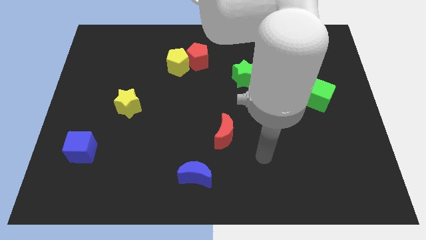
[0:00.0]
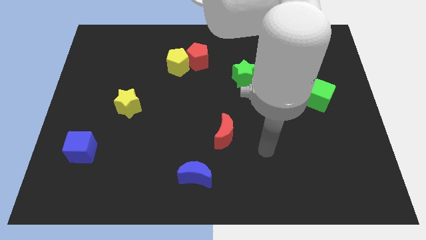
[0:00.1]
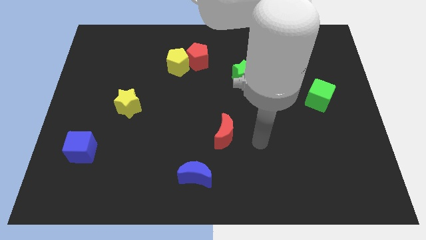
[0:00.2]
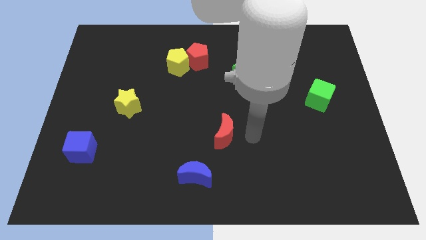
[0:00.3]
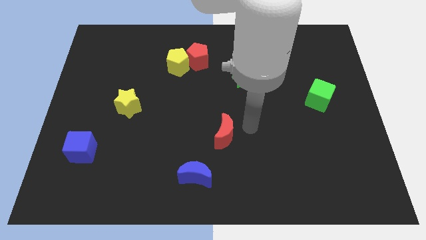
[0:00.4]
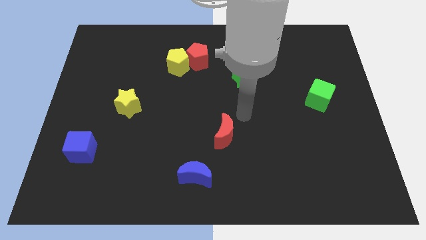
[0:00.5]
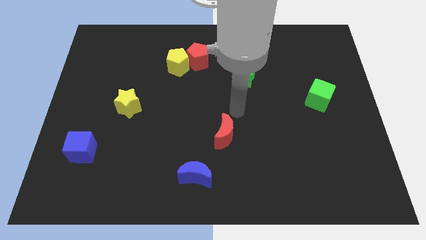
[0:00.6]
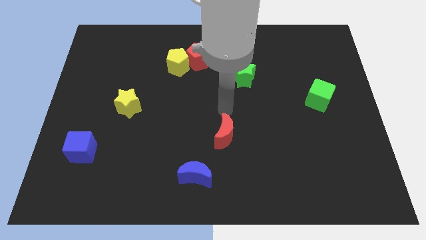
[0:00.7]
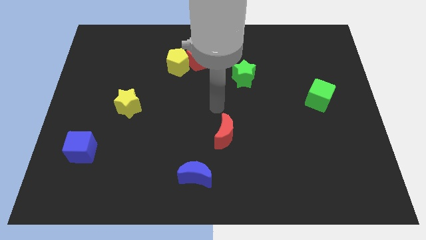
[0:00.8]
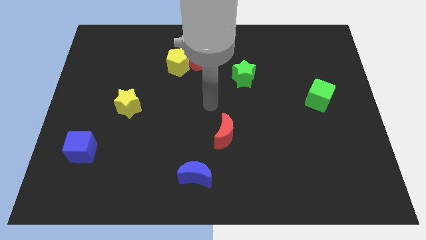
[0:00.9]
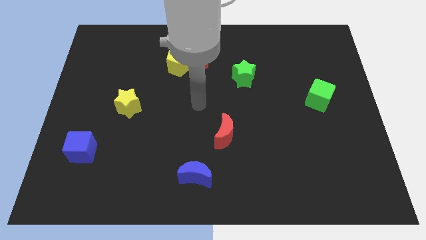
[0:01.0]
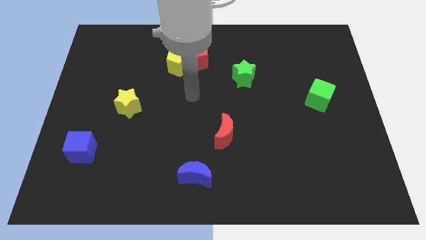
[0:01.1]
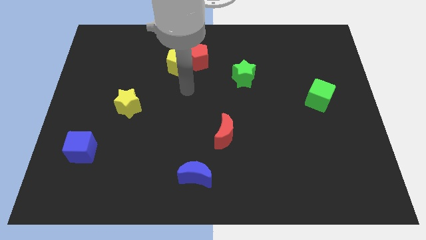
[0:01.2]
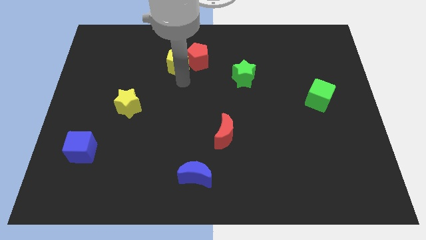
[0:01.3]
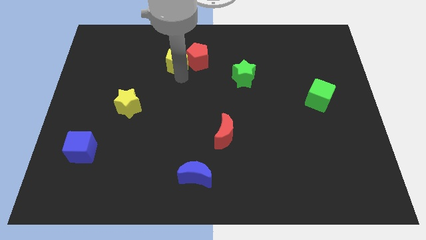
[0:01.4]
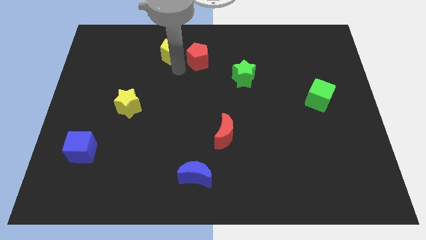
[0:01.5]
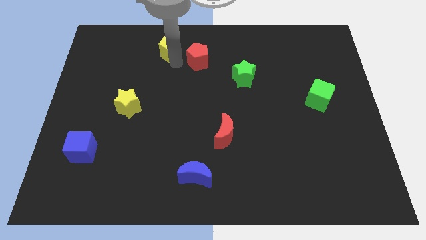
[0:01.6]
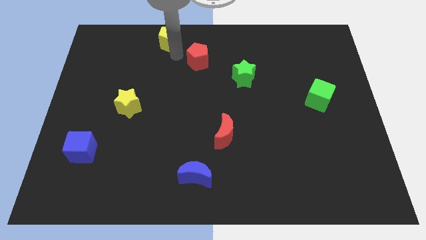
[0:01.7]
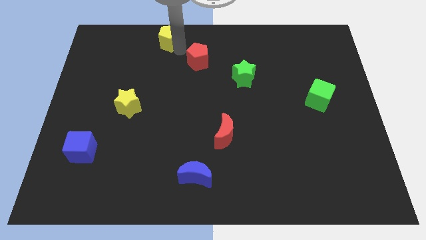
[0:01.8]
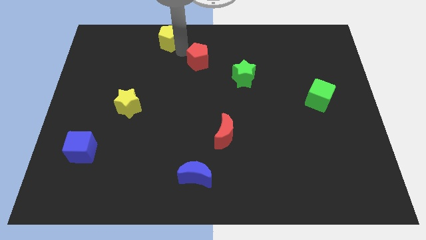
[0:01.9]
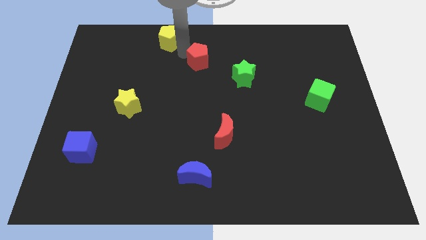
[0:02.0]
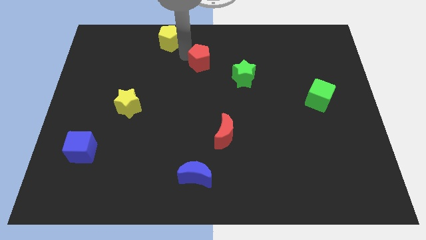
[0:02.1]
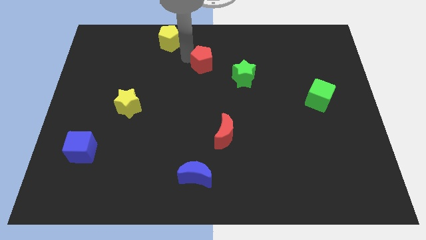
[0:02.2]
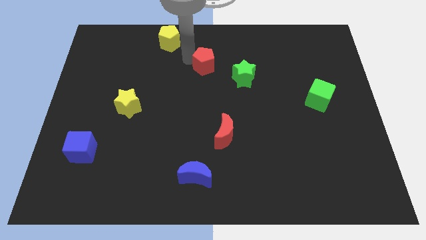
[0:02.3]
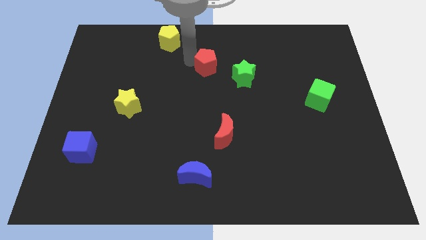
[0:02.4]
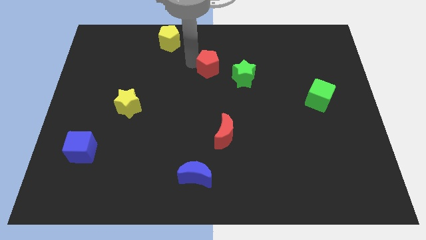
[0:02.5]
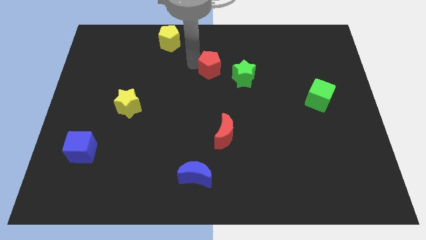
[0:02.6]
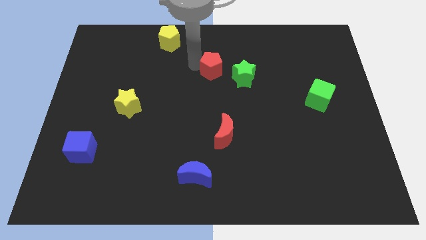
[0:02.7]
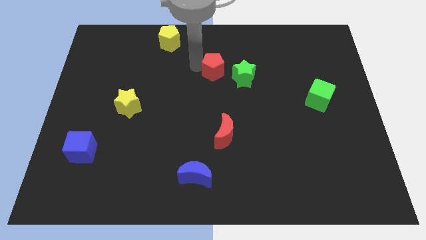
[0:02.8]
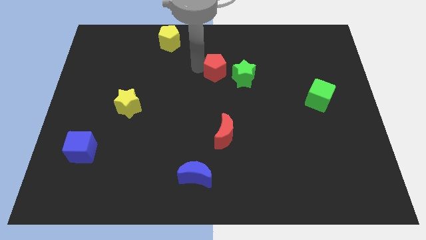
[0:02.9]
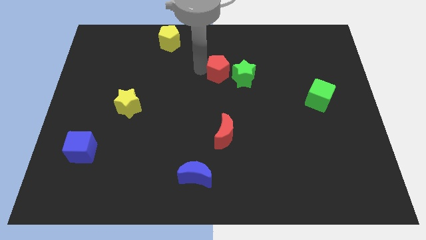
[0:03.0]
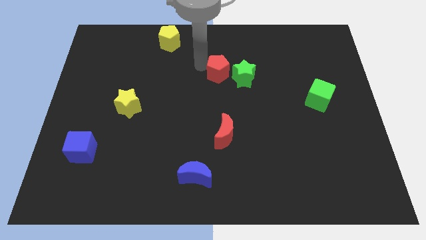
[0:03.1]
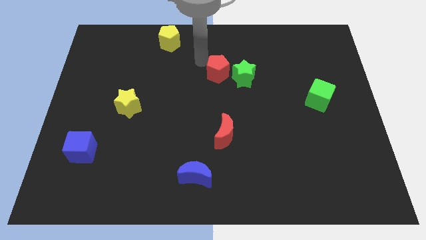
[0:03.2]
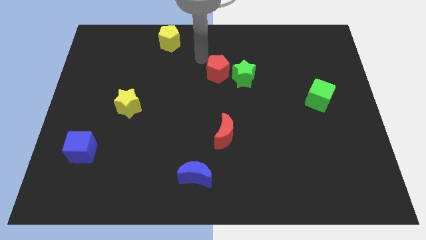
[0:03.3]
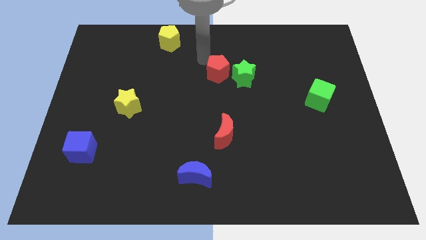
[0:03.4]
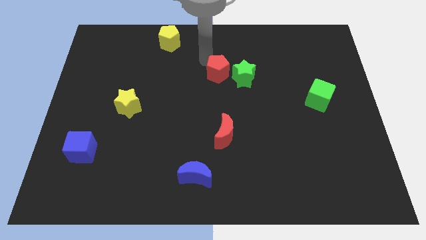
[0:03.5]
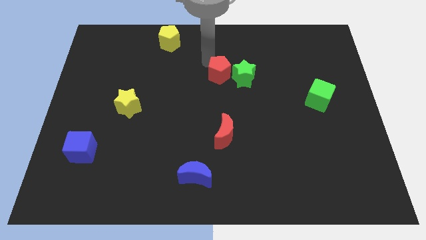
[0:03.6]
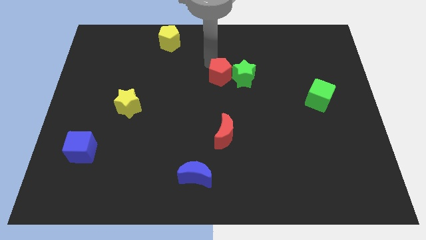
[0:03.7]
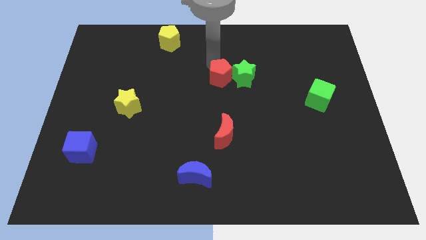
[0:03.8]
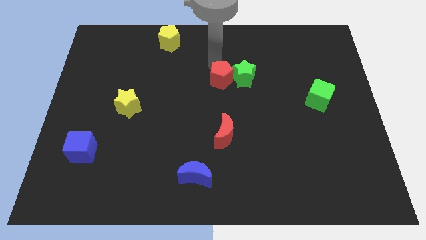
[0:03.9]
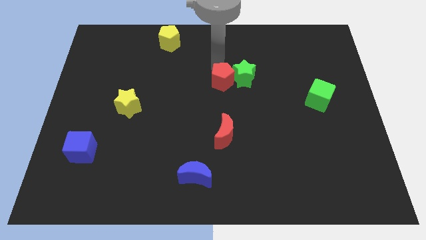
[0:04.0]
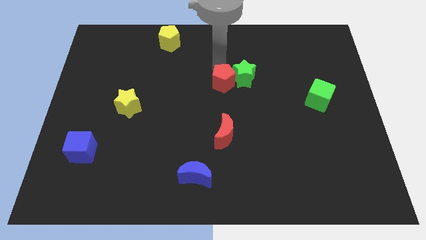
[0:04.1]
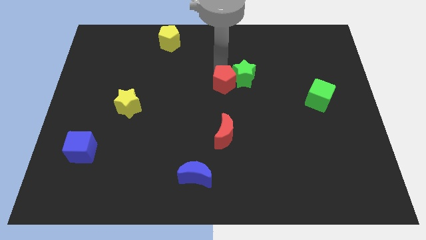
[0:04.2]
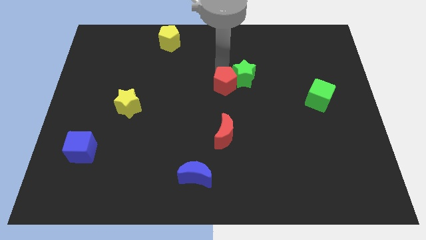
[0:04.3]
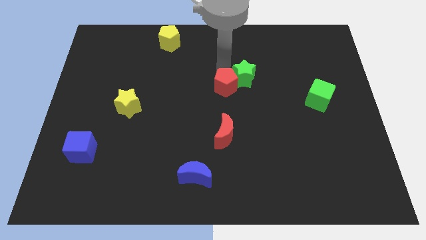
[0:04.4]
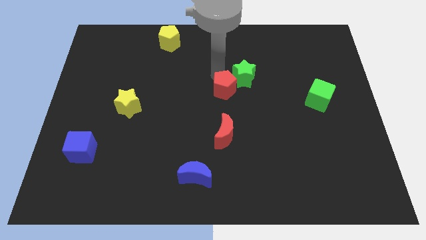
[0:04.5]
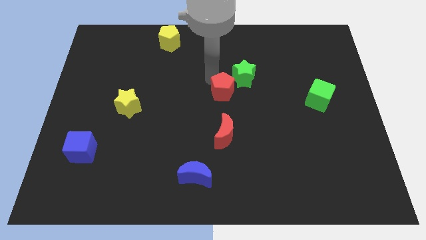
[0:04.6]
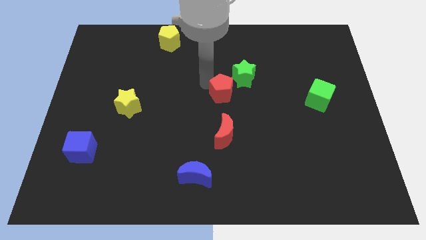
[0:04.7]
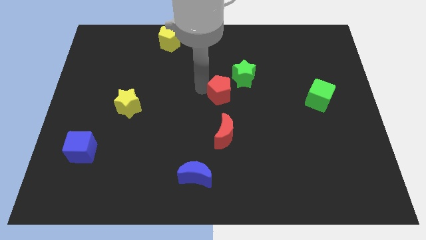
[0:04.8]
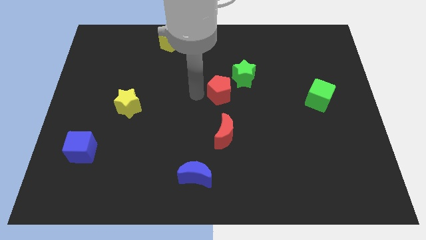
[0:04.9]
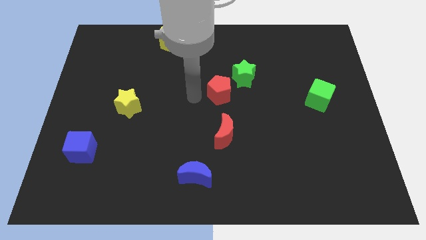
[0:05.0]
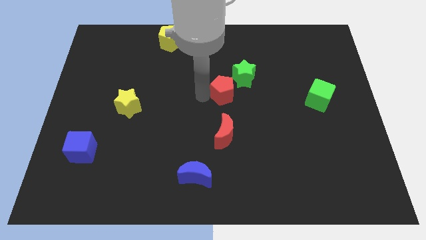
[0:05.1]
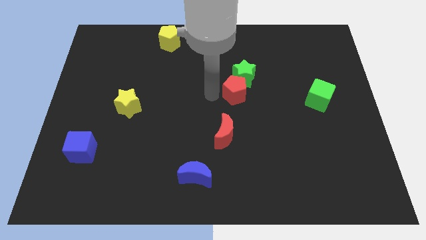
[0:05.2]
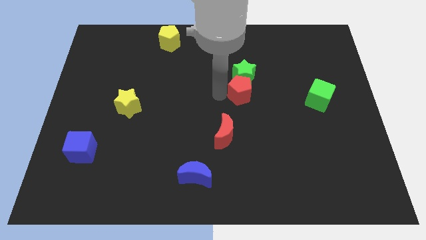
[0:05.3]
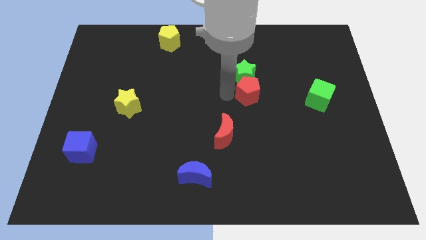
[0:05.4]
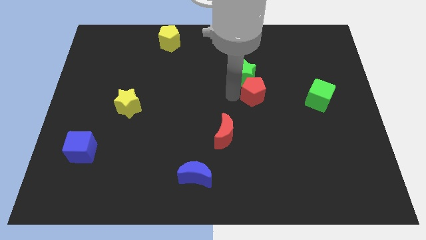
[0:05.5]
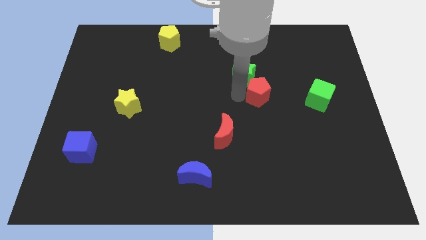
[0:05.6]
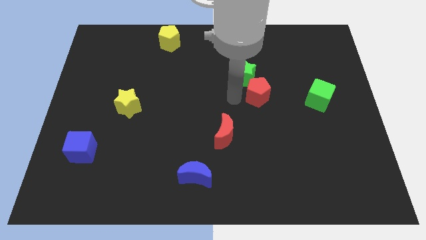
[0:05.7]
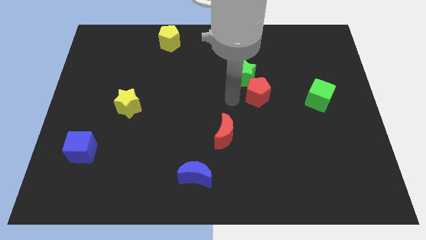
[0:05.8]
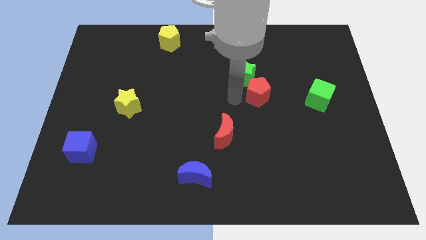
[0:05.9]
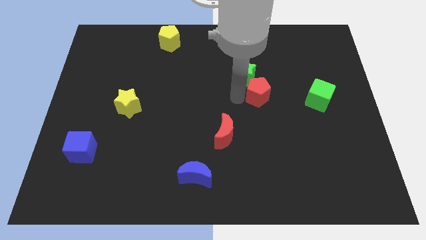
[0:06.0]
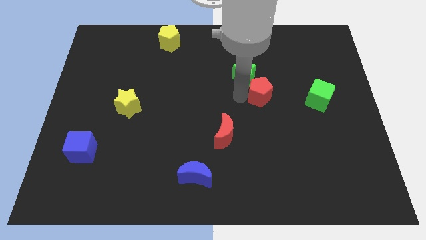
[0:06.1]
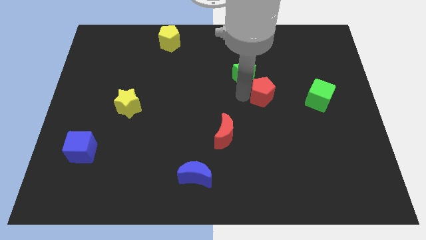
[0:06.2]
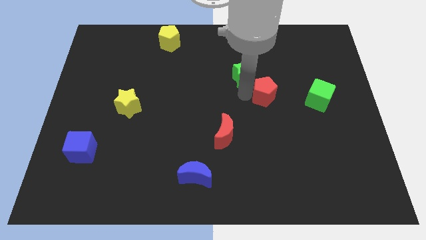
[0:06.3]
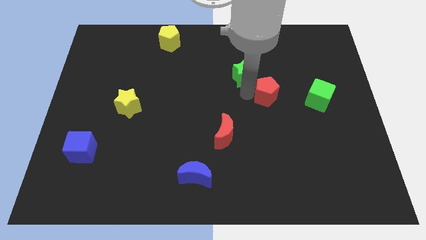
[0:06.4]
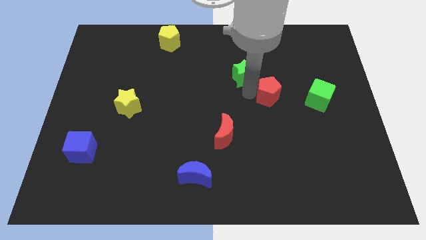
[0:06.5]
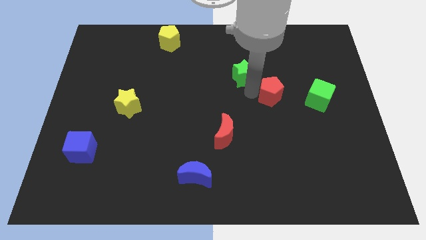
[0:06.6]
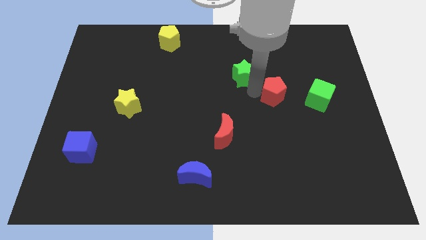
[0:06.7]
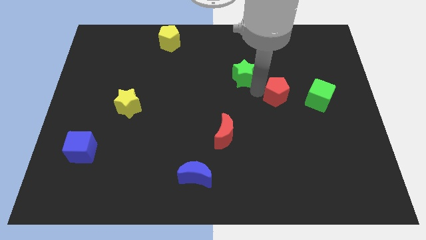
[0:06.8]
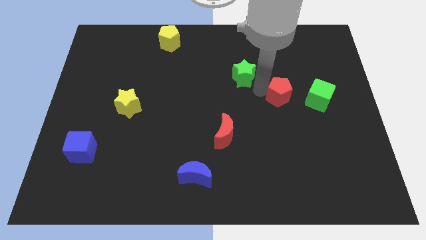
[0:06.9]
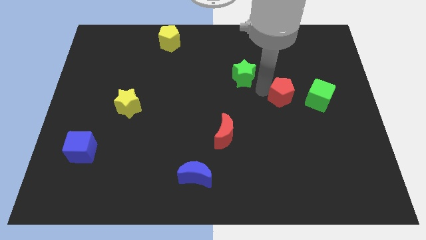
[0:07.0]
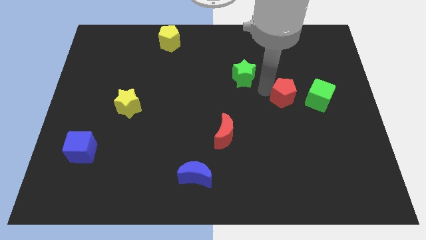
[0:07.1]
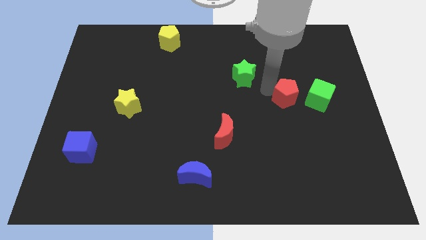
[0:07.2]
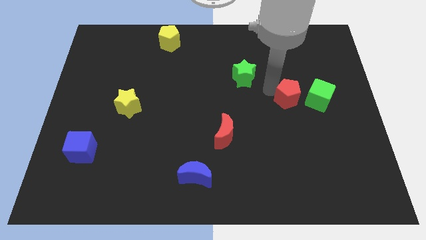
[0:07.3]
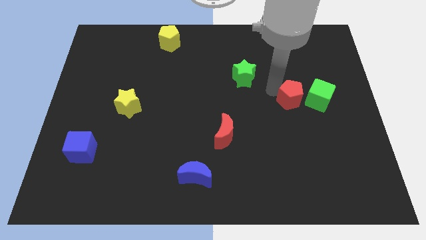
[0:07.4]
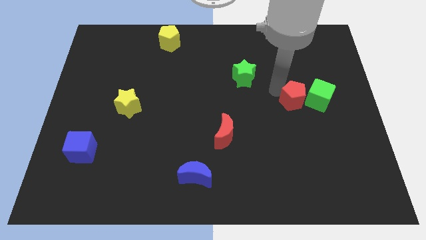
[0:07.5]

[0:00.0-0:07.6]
push the red pentagon to the green cube
